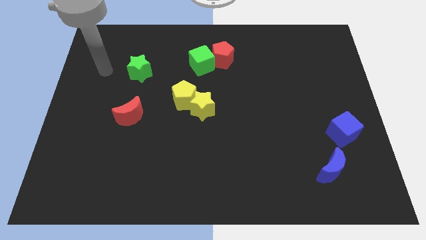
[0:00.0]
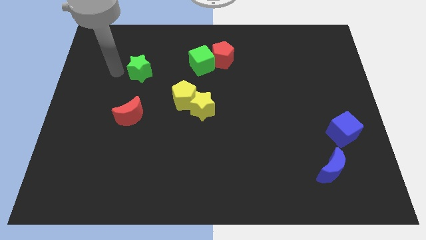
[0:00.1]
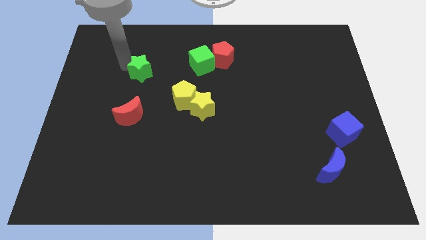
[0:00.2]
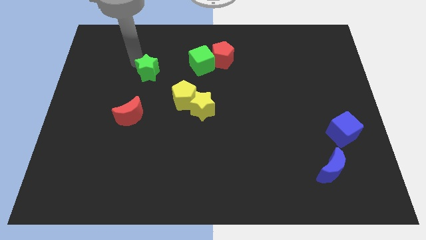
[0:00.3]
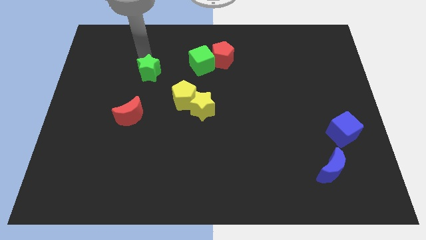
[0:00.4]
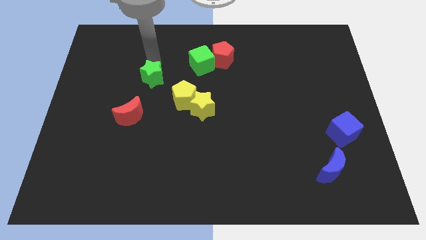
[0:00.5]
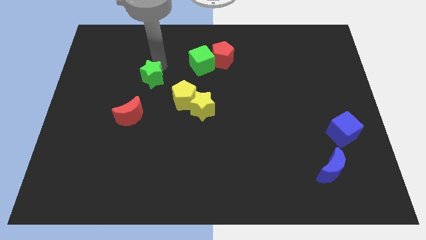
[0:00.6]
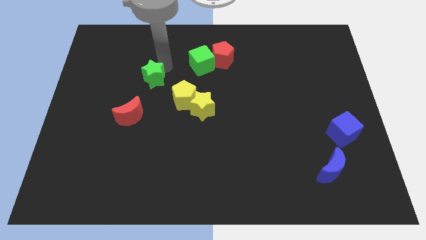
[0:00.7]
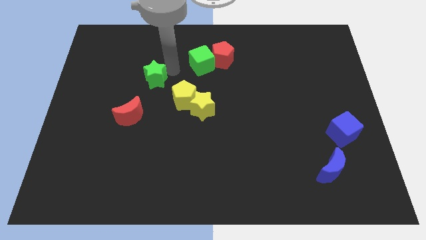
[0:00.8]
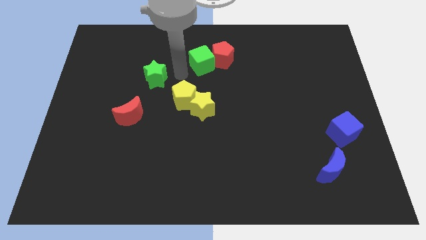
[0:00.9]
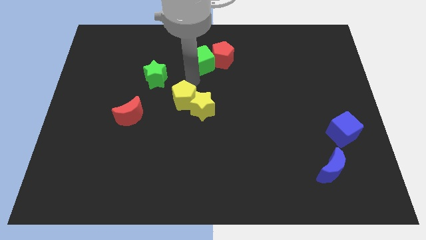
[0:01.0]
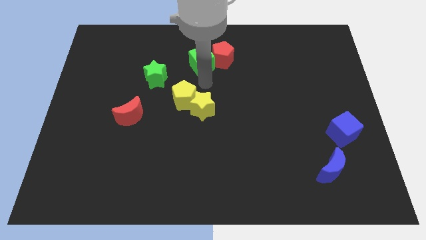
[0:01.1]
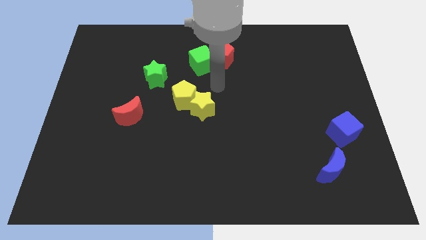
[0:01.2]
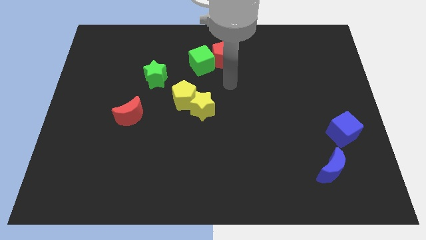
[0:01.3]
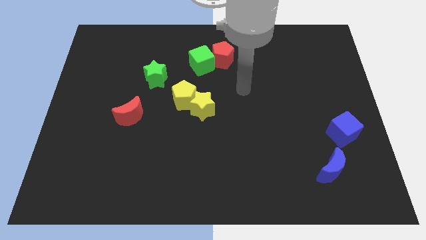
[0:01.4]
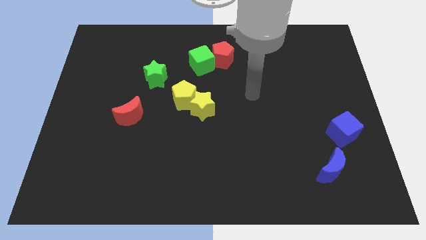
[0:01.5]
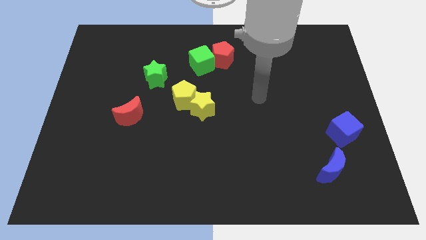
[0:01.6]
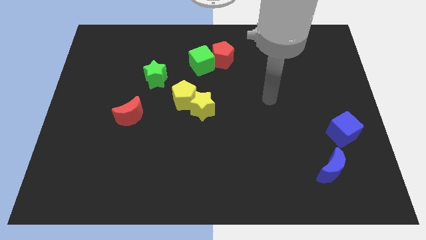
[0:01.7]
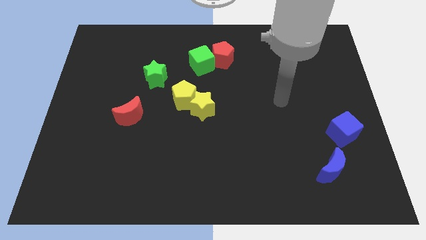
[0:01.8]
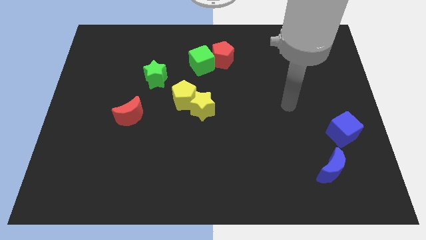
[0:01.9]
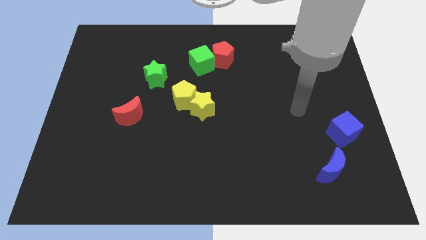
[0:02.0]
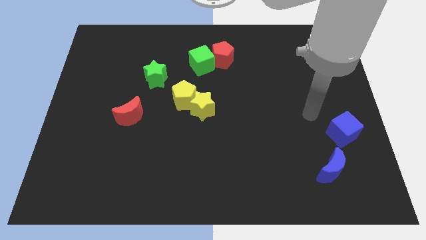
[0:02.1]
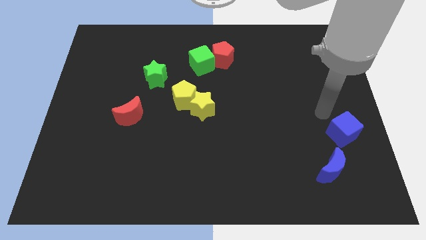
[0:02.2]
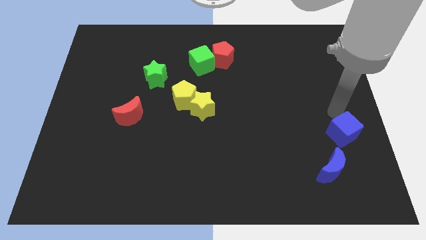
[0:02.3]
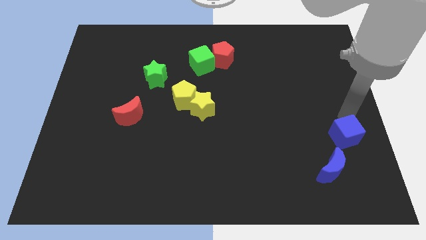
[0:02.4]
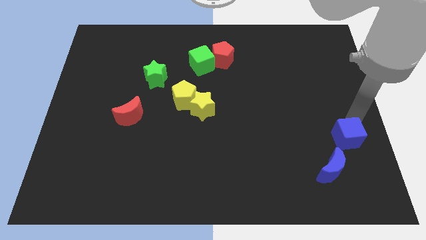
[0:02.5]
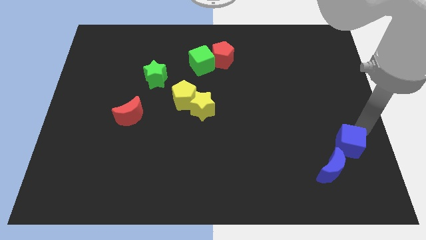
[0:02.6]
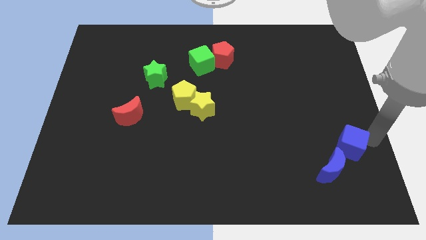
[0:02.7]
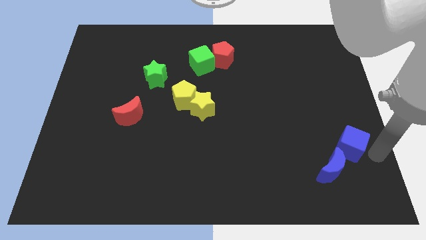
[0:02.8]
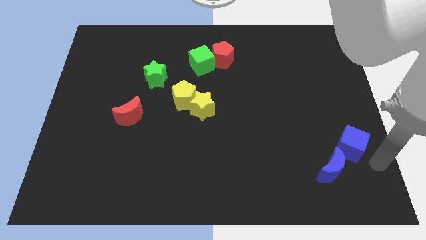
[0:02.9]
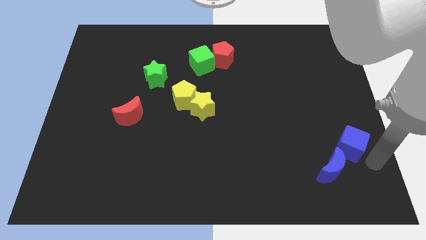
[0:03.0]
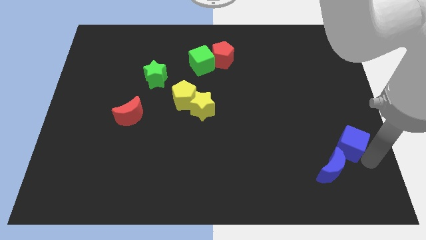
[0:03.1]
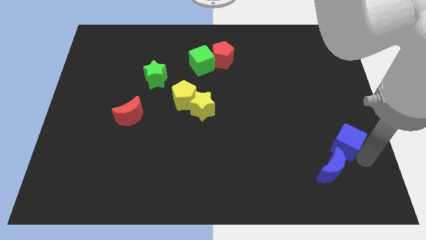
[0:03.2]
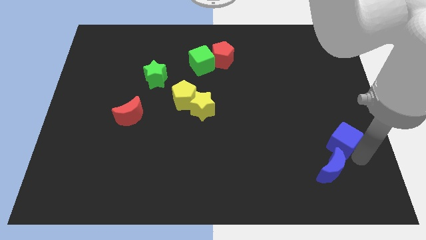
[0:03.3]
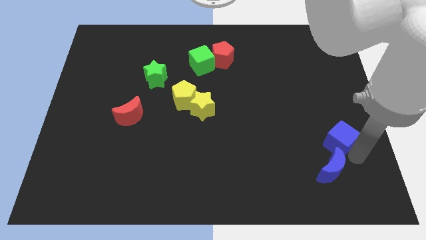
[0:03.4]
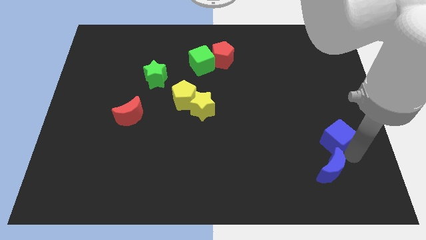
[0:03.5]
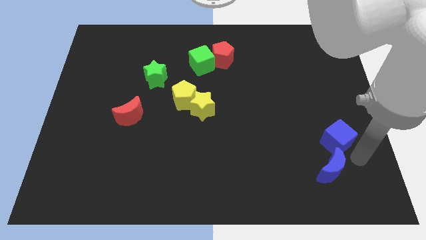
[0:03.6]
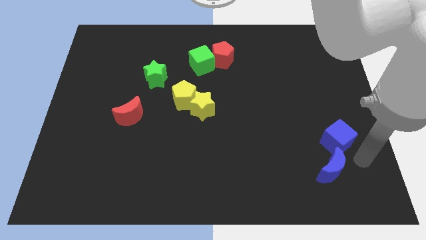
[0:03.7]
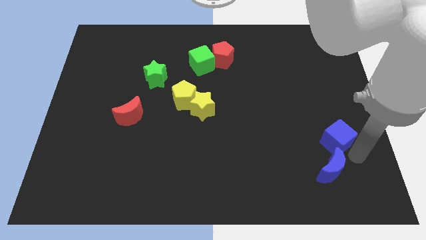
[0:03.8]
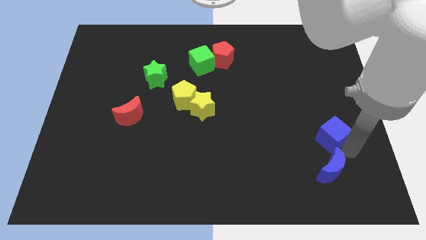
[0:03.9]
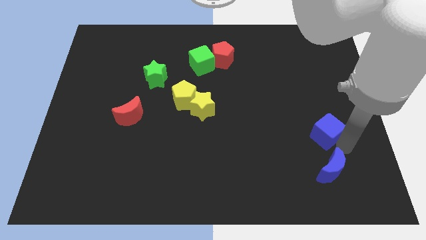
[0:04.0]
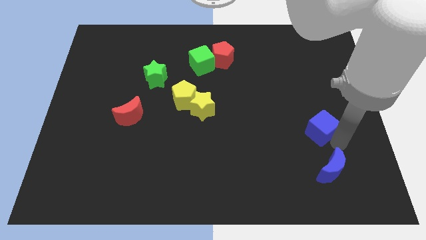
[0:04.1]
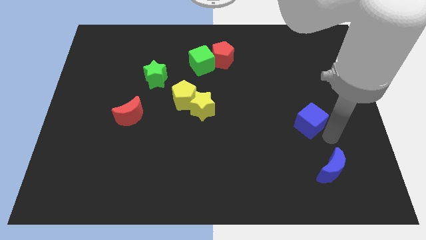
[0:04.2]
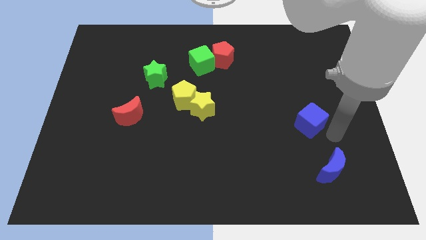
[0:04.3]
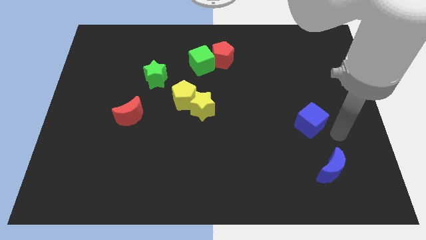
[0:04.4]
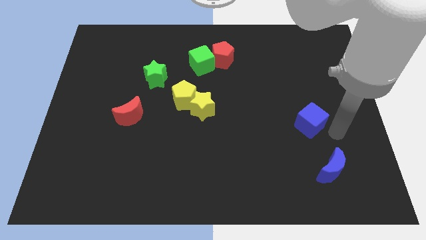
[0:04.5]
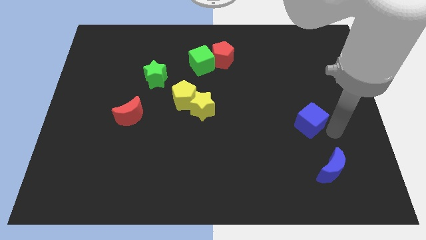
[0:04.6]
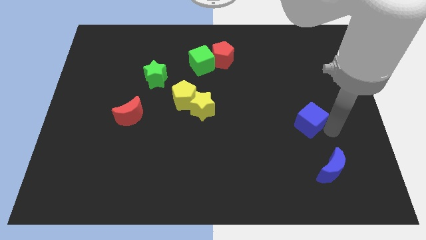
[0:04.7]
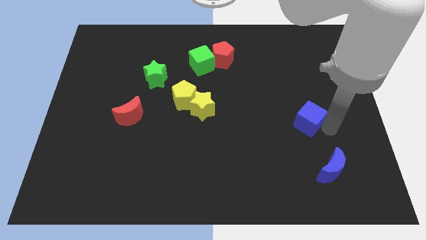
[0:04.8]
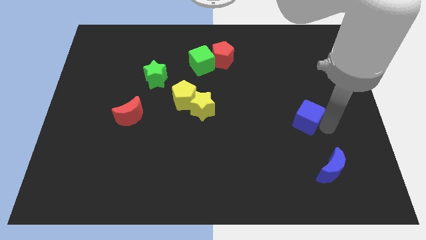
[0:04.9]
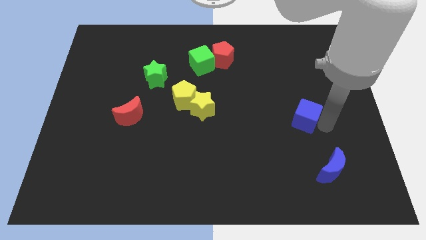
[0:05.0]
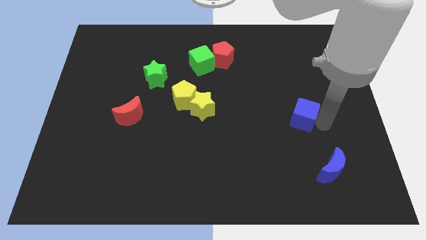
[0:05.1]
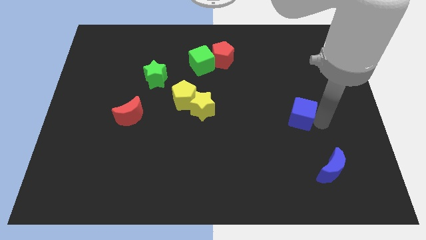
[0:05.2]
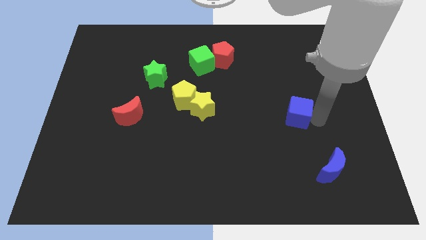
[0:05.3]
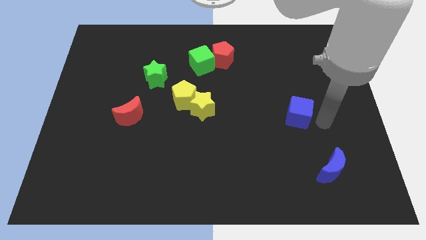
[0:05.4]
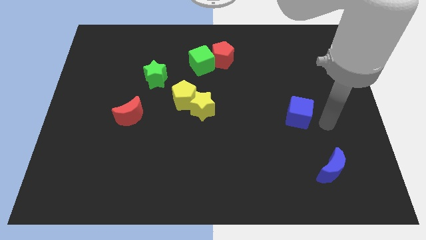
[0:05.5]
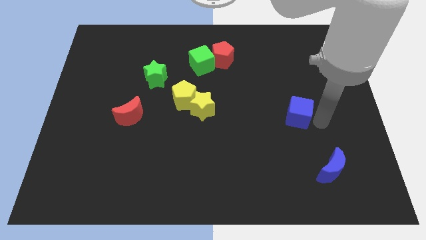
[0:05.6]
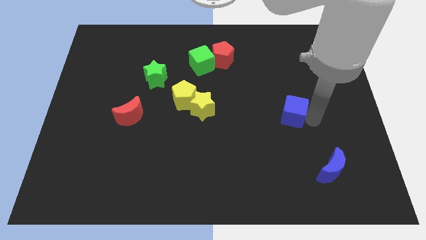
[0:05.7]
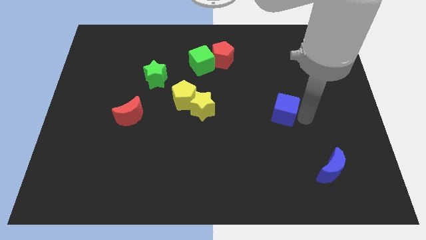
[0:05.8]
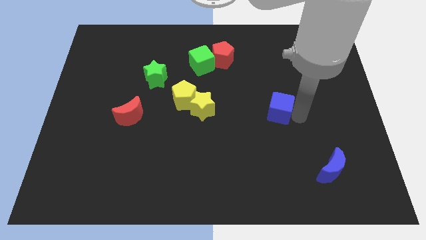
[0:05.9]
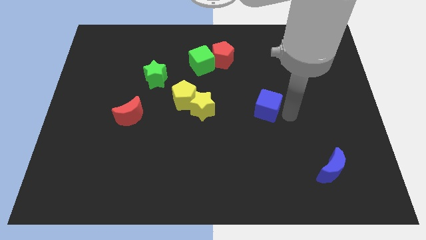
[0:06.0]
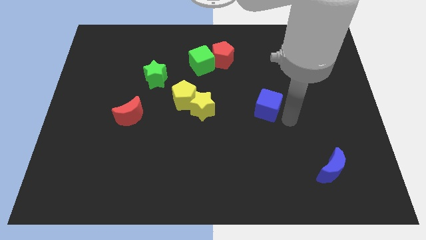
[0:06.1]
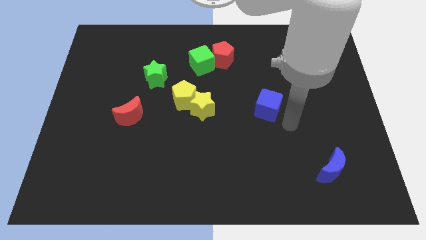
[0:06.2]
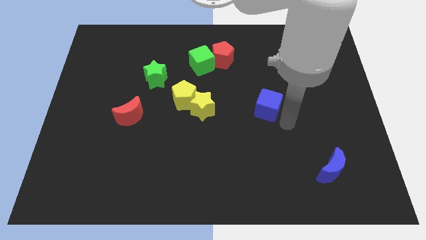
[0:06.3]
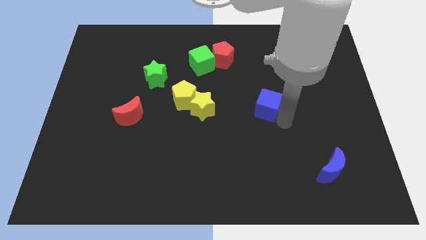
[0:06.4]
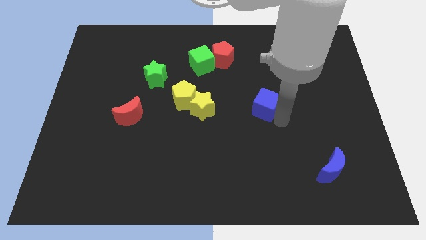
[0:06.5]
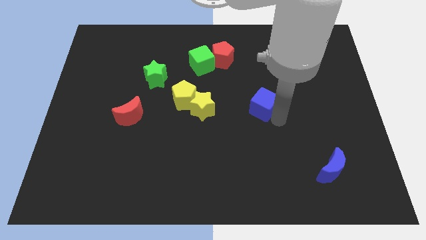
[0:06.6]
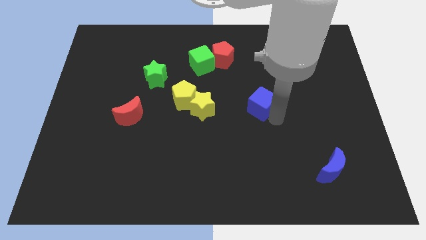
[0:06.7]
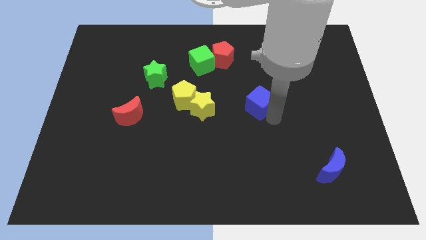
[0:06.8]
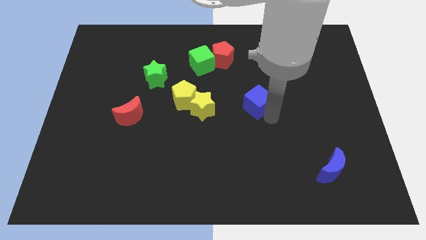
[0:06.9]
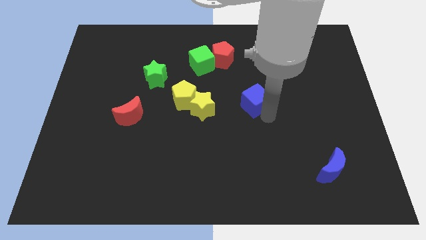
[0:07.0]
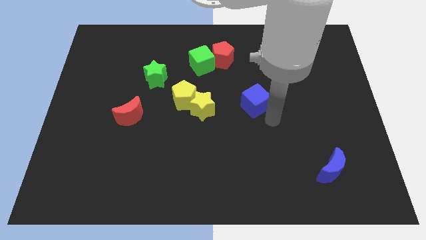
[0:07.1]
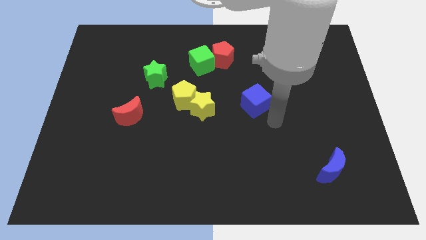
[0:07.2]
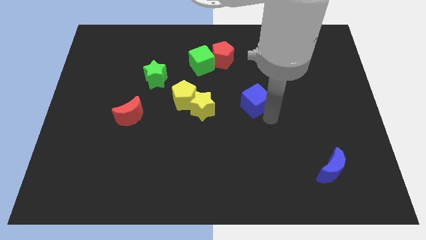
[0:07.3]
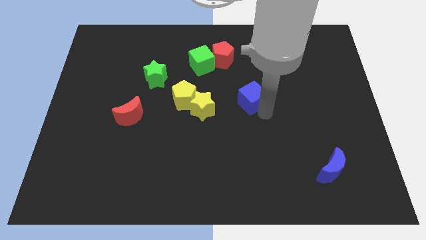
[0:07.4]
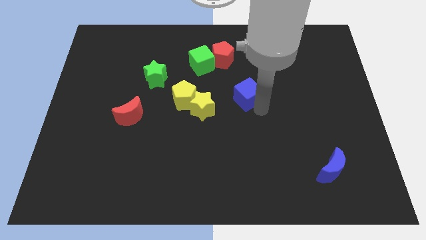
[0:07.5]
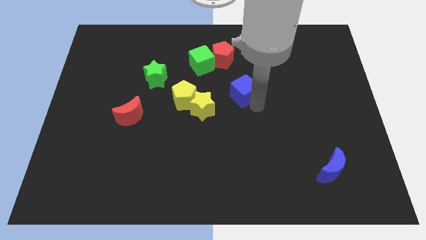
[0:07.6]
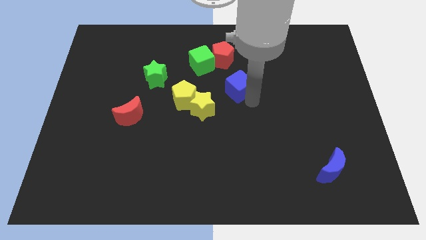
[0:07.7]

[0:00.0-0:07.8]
push the blue cube to the bottom right side of the green cube
